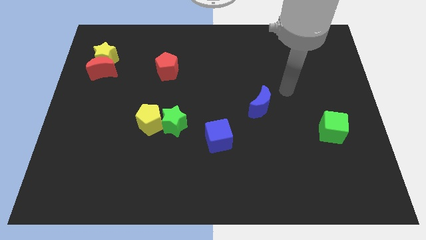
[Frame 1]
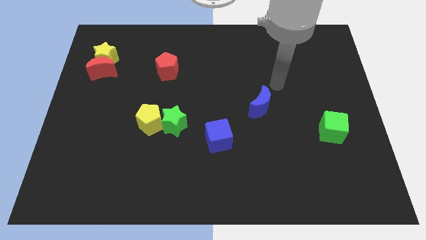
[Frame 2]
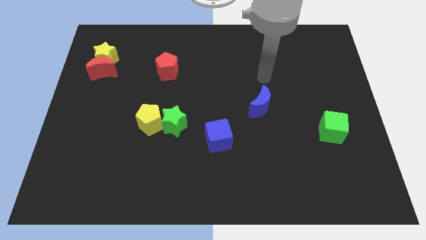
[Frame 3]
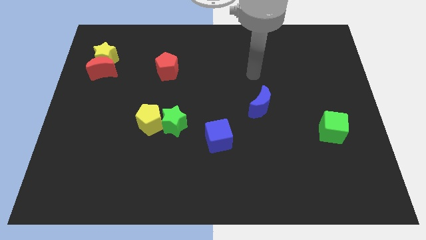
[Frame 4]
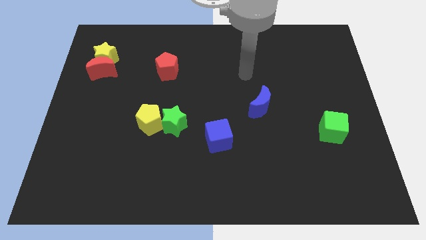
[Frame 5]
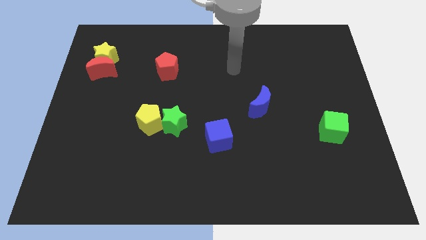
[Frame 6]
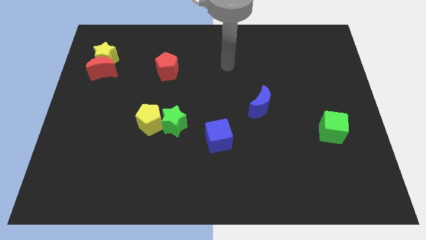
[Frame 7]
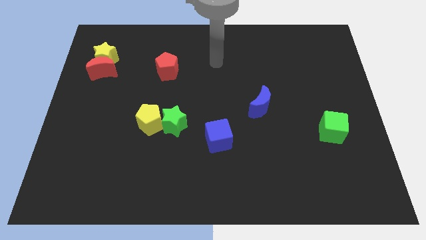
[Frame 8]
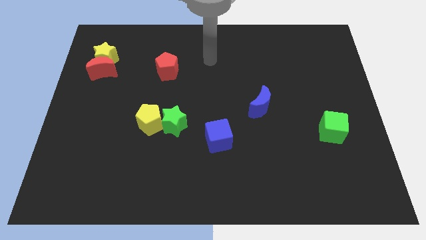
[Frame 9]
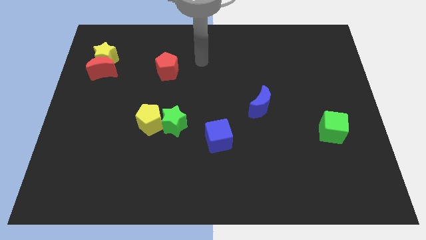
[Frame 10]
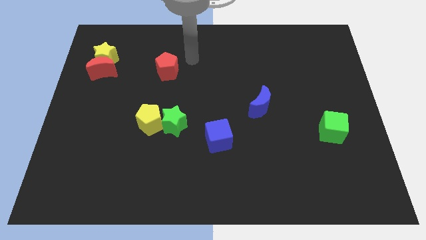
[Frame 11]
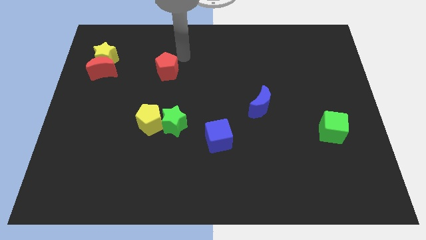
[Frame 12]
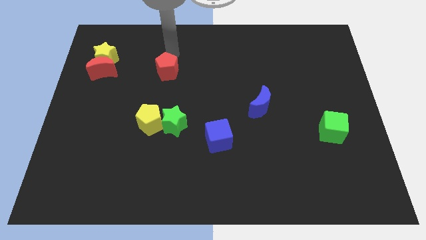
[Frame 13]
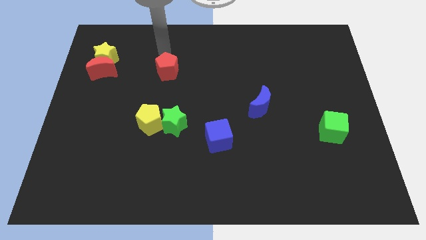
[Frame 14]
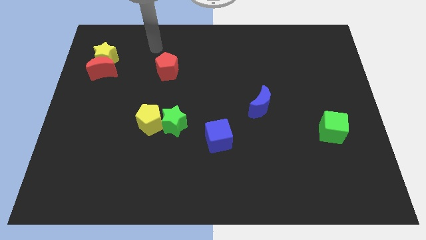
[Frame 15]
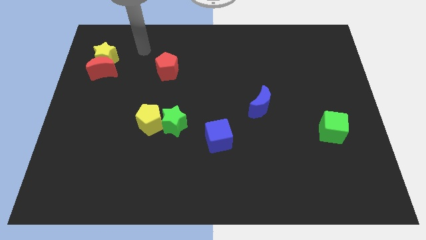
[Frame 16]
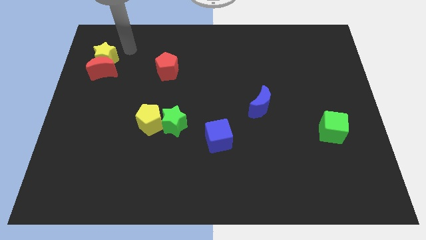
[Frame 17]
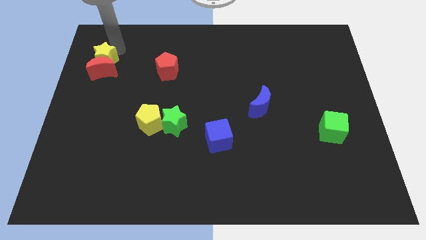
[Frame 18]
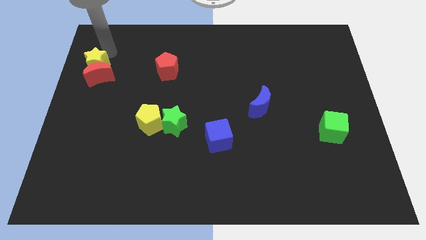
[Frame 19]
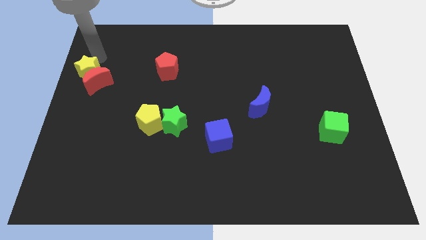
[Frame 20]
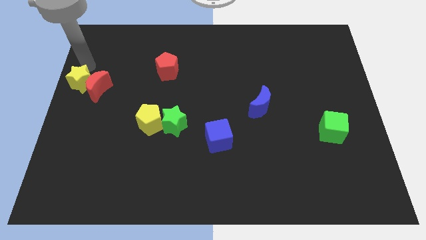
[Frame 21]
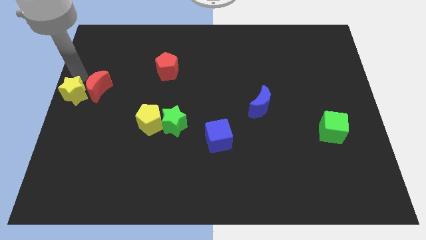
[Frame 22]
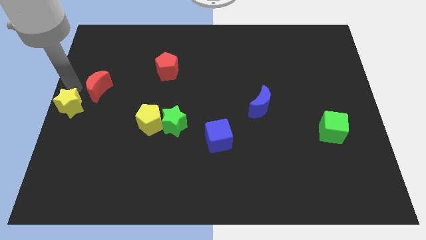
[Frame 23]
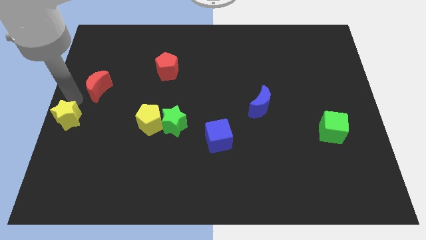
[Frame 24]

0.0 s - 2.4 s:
move the red moon away from the yellow star

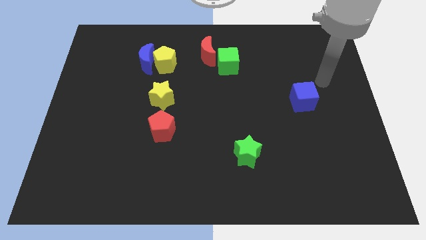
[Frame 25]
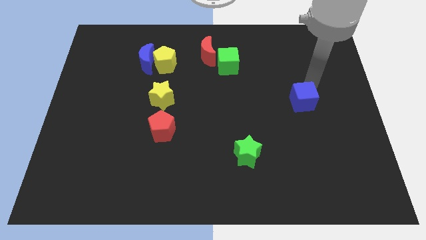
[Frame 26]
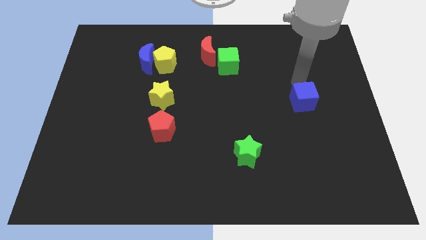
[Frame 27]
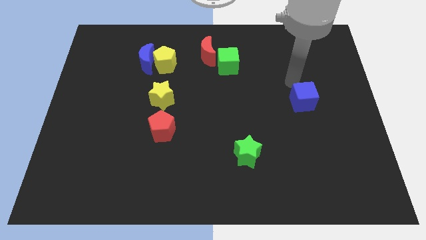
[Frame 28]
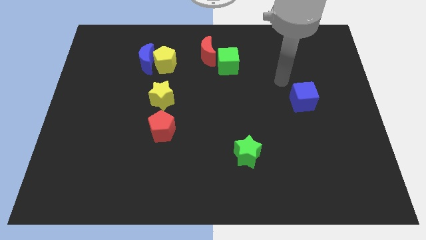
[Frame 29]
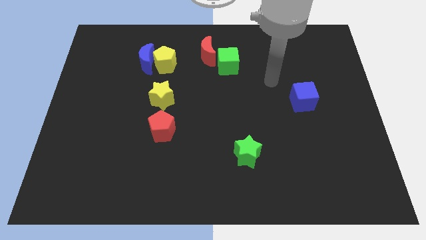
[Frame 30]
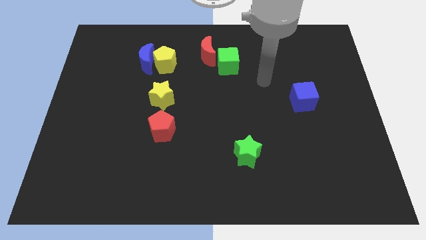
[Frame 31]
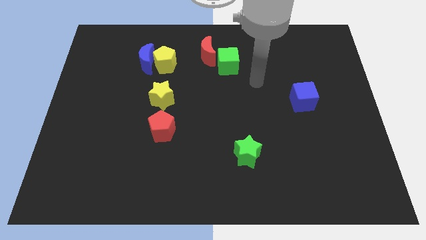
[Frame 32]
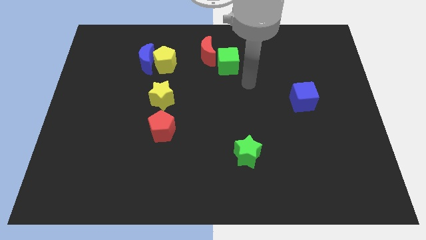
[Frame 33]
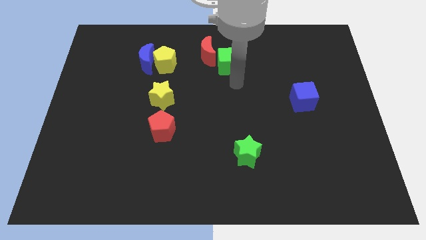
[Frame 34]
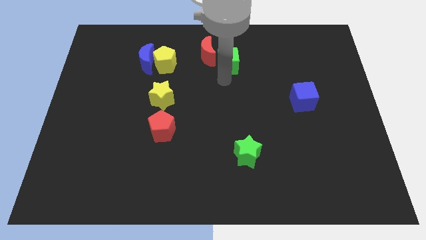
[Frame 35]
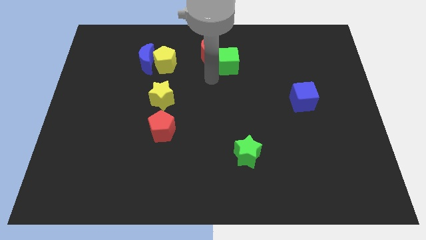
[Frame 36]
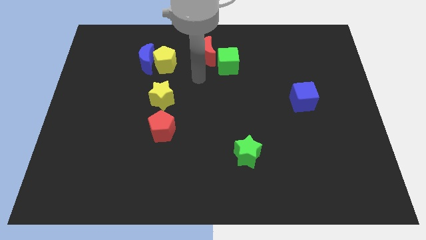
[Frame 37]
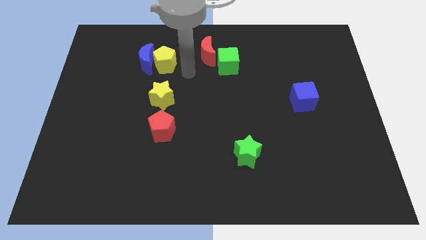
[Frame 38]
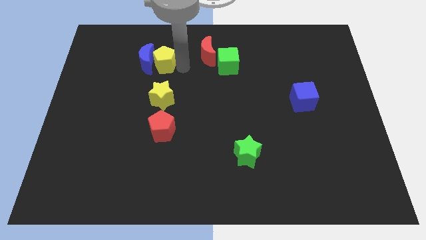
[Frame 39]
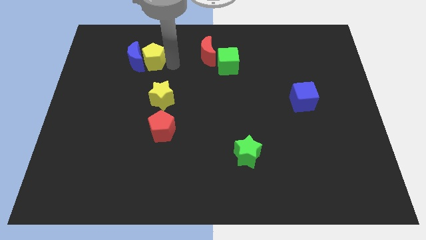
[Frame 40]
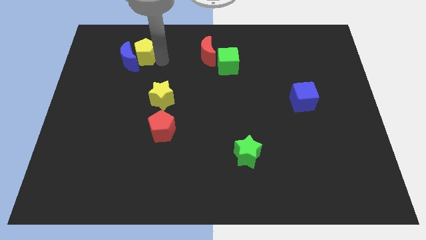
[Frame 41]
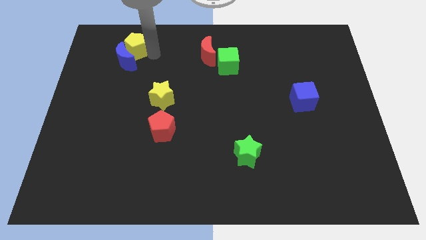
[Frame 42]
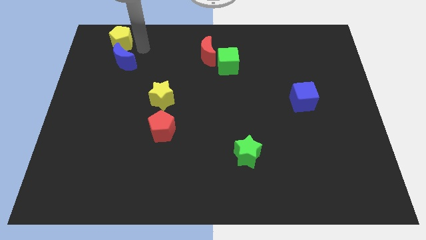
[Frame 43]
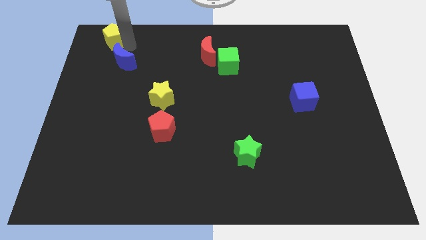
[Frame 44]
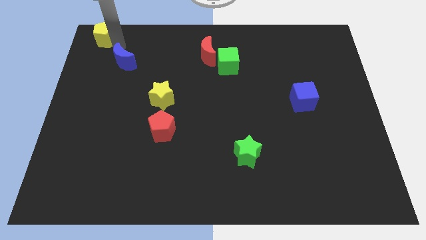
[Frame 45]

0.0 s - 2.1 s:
move the blue moon away from the yellow pentagon

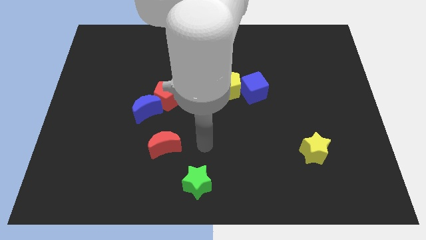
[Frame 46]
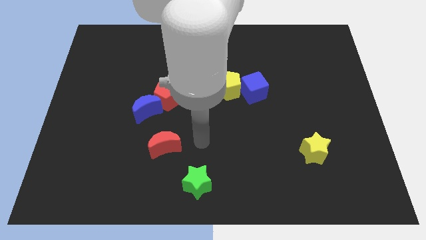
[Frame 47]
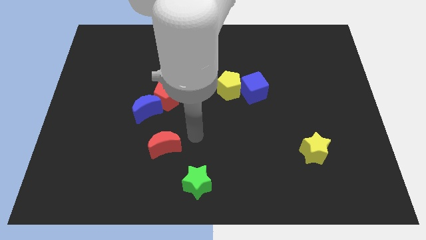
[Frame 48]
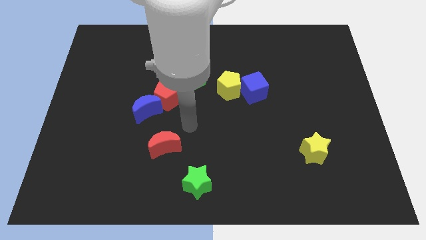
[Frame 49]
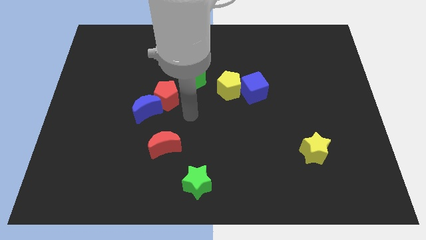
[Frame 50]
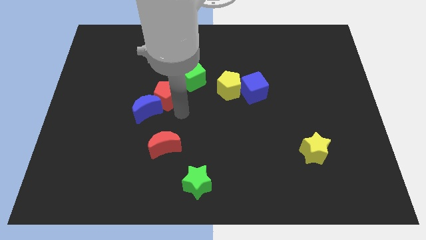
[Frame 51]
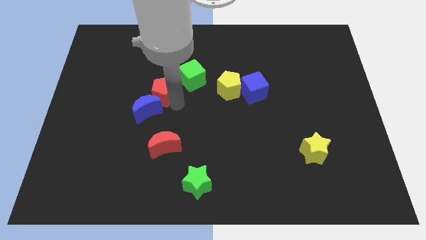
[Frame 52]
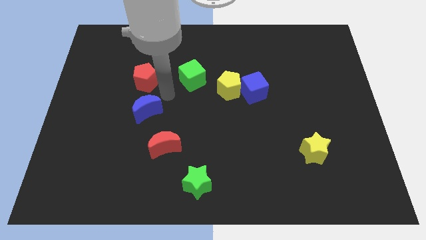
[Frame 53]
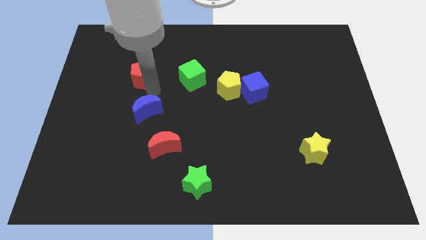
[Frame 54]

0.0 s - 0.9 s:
separate the blue moon from the red pentagon

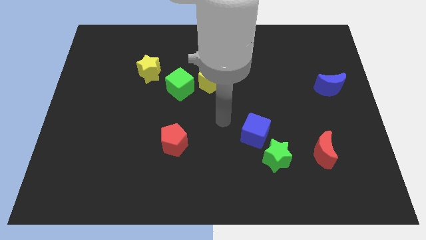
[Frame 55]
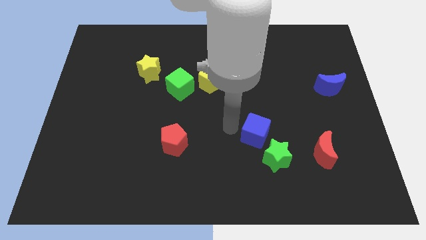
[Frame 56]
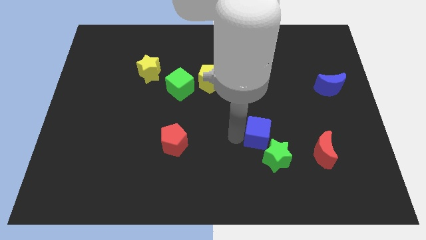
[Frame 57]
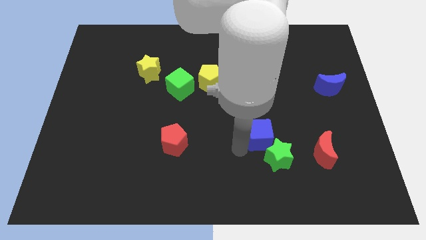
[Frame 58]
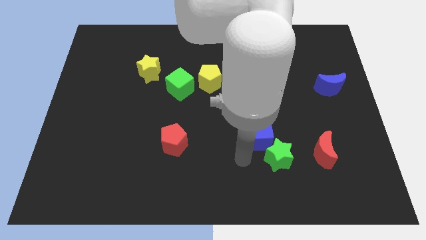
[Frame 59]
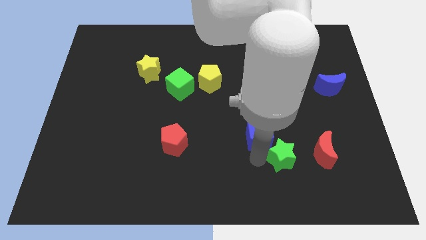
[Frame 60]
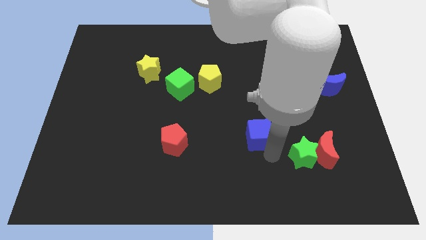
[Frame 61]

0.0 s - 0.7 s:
move the blue cube away from the green star

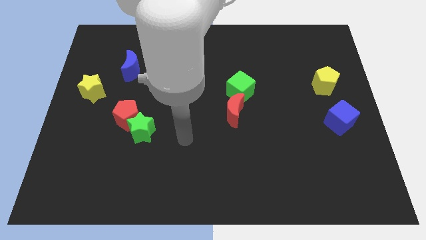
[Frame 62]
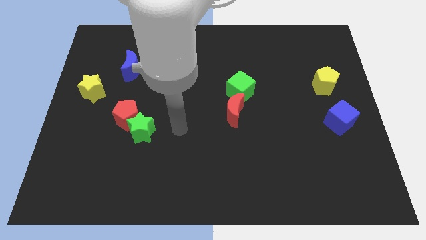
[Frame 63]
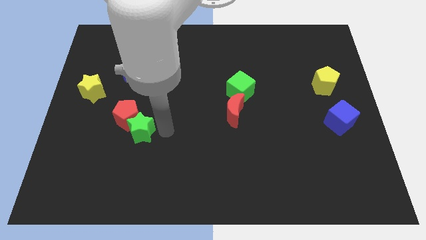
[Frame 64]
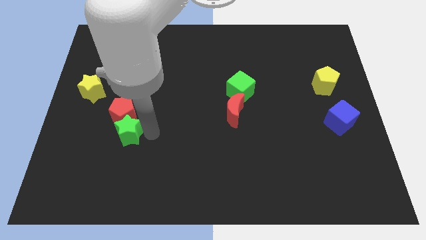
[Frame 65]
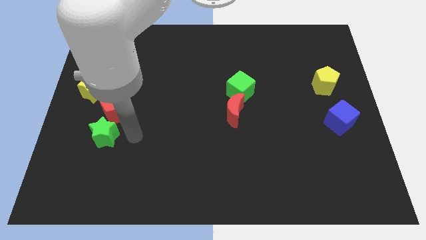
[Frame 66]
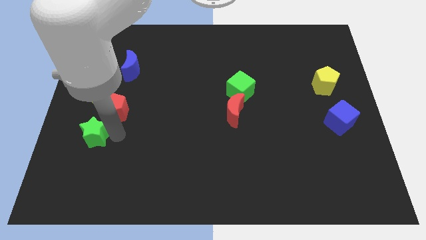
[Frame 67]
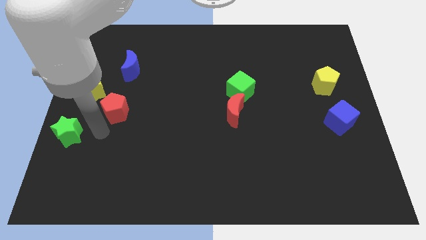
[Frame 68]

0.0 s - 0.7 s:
pull the red pentagon apart from the green star

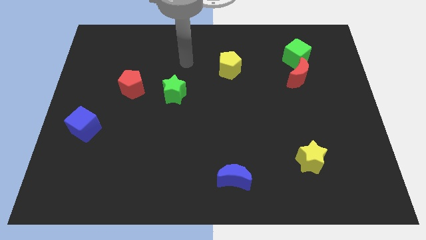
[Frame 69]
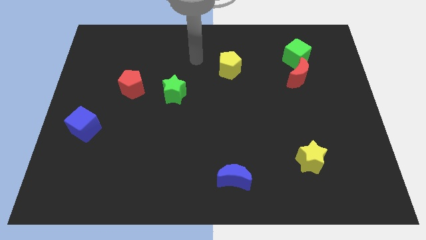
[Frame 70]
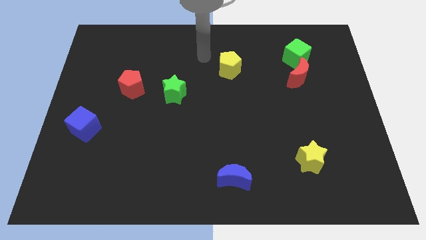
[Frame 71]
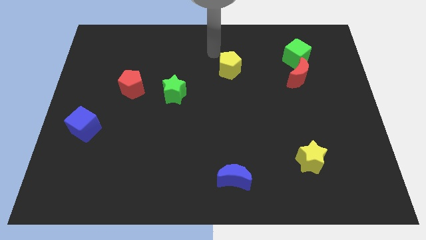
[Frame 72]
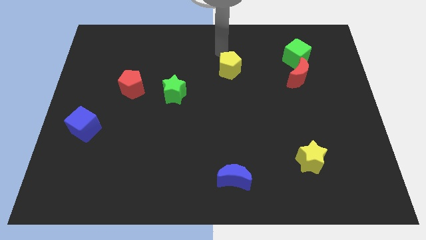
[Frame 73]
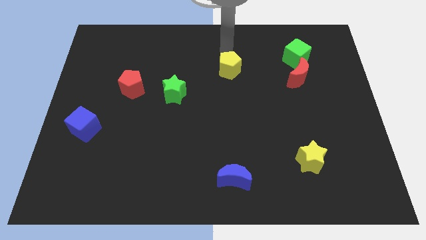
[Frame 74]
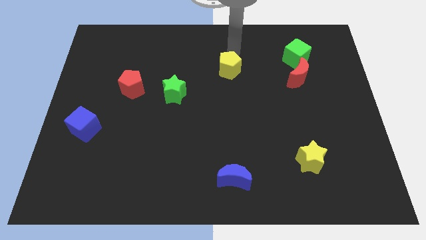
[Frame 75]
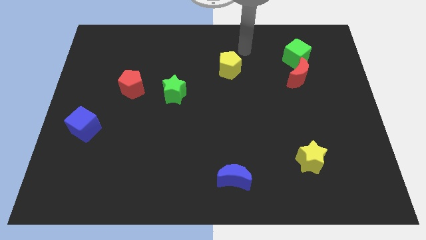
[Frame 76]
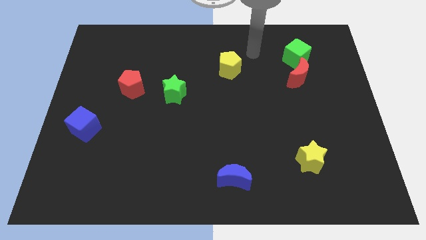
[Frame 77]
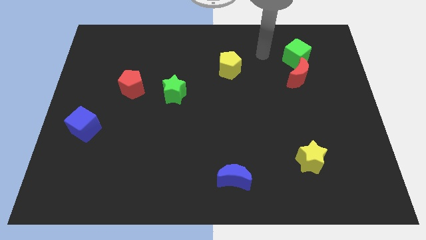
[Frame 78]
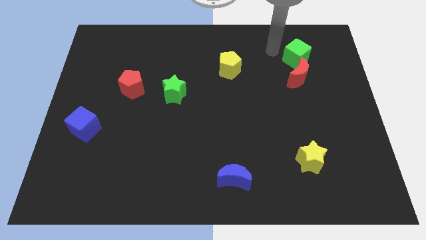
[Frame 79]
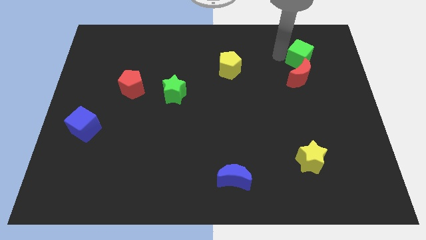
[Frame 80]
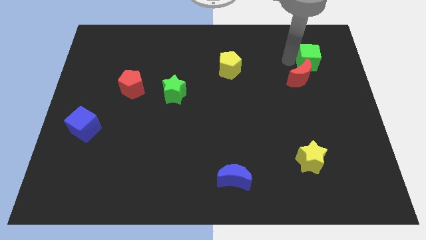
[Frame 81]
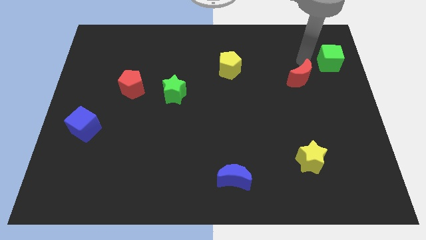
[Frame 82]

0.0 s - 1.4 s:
move the red moon away from the green cube

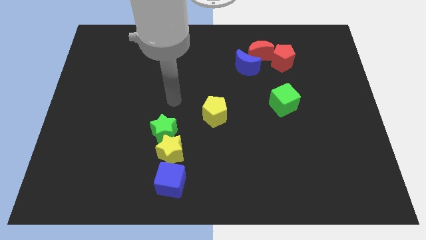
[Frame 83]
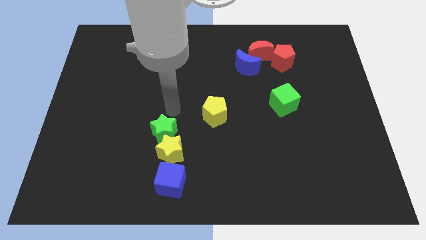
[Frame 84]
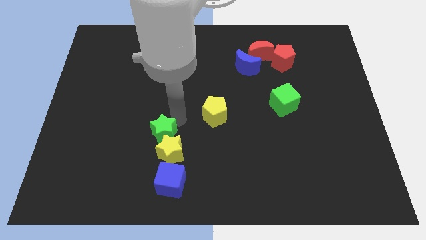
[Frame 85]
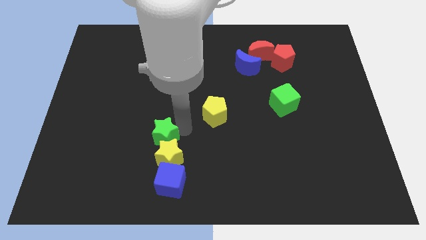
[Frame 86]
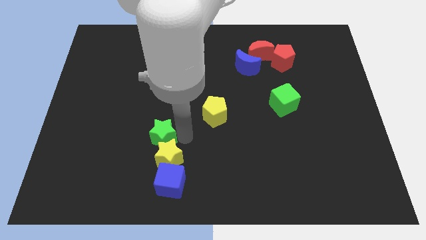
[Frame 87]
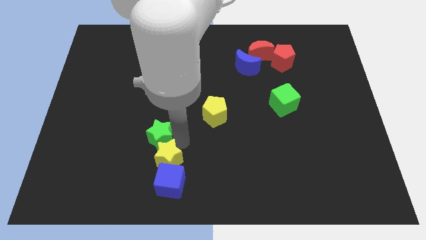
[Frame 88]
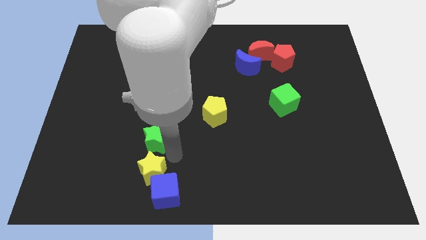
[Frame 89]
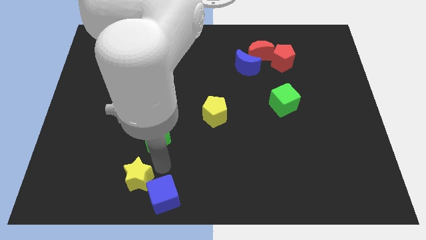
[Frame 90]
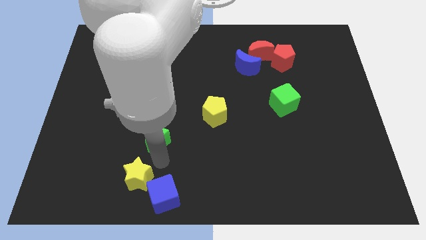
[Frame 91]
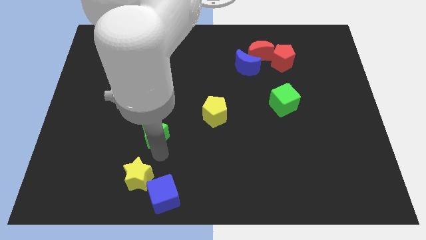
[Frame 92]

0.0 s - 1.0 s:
move the green star away from the yellow star

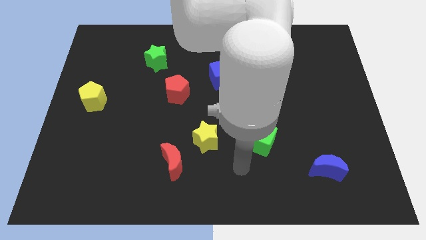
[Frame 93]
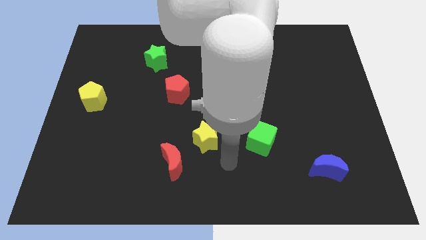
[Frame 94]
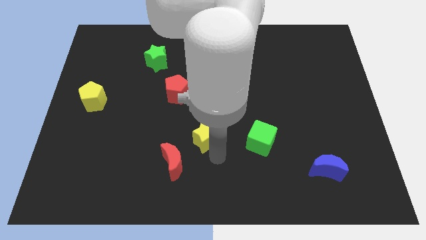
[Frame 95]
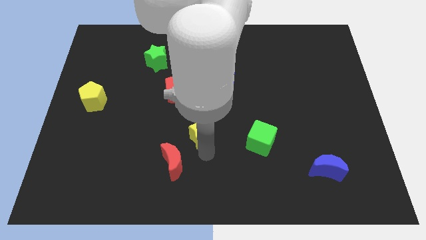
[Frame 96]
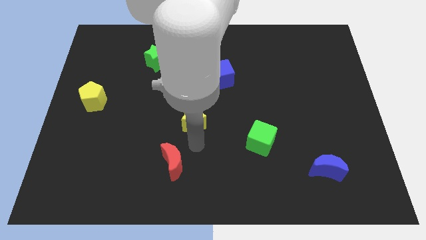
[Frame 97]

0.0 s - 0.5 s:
pull the red moon apart from the yellow star
